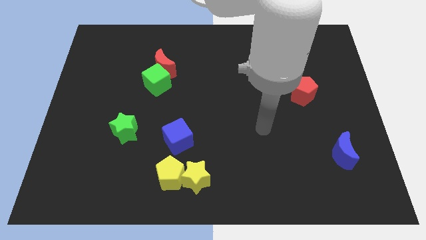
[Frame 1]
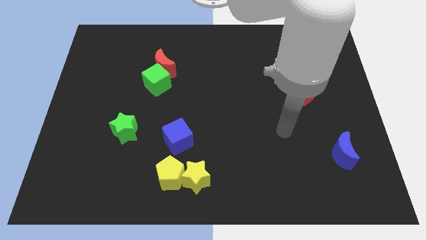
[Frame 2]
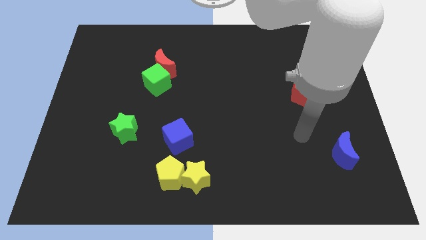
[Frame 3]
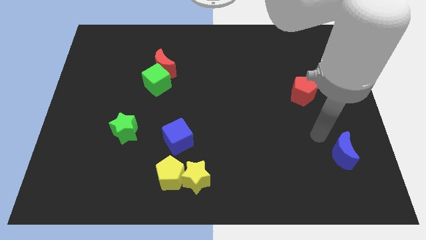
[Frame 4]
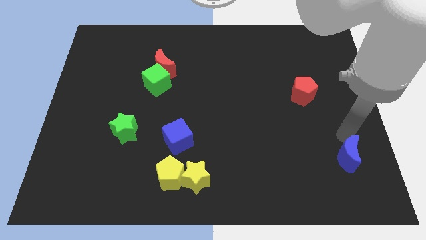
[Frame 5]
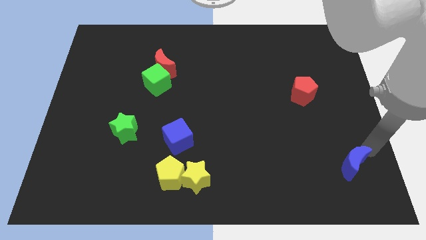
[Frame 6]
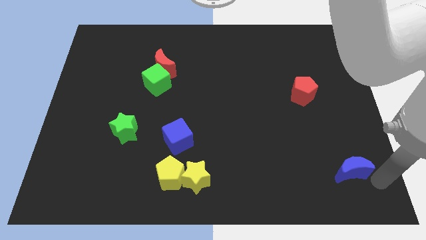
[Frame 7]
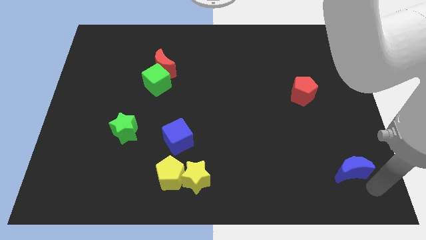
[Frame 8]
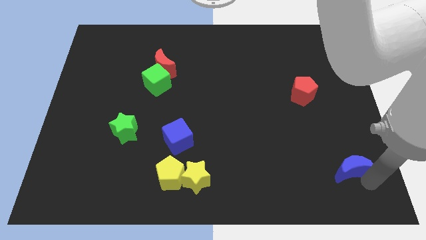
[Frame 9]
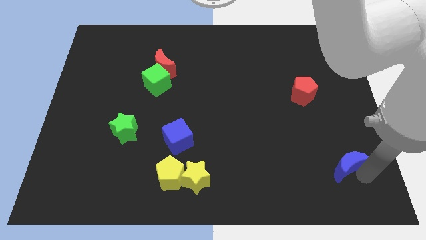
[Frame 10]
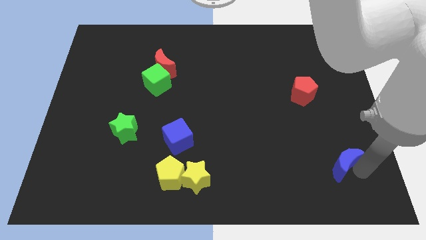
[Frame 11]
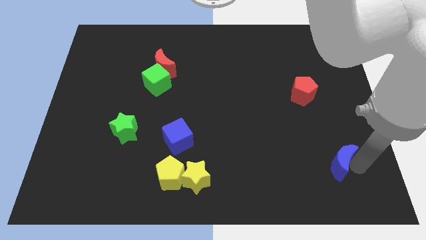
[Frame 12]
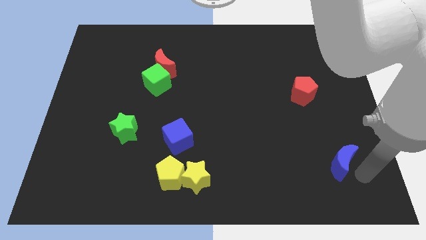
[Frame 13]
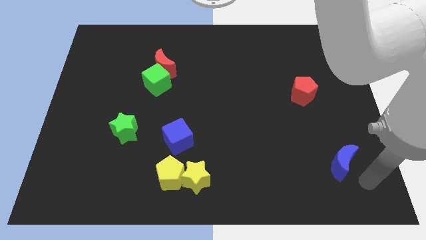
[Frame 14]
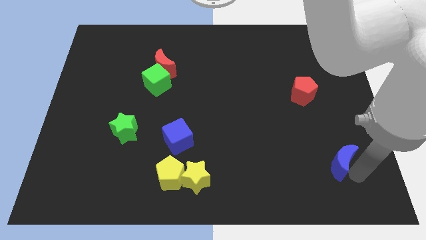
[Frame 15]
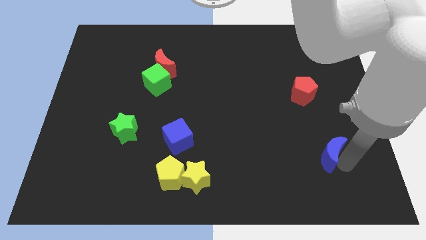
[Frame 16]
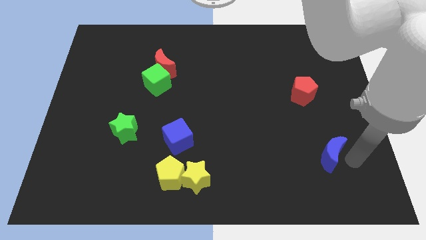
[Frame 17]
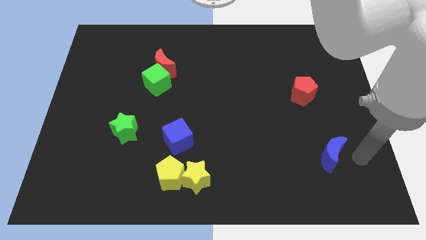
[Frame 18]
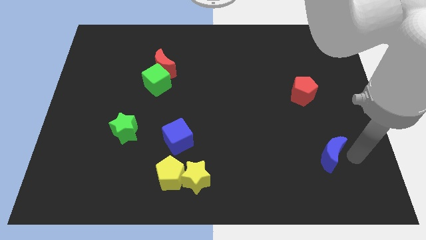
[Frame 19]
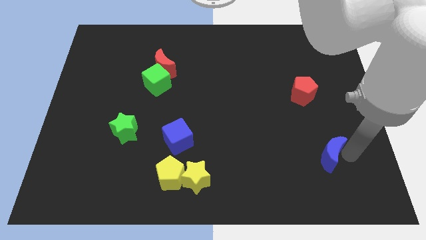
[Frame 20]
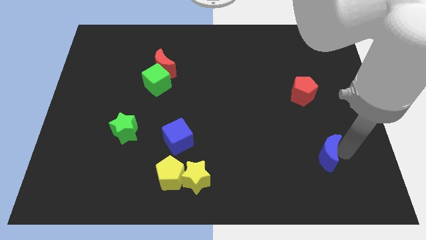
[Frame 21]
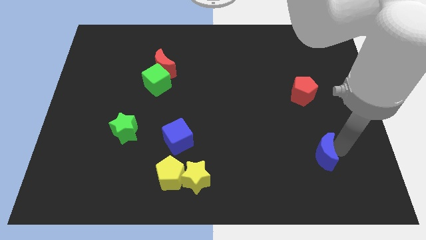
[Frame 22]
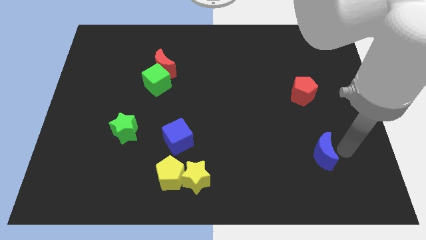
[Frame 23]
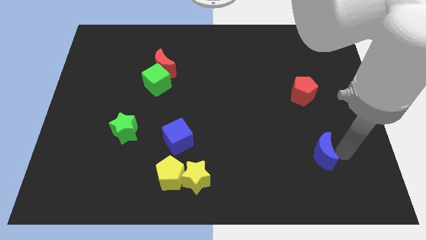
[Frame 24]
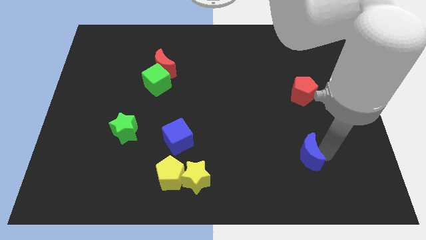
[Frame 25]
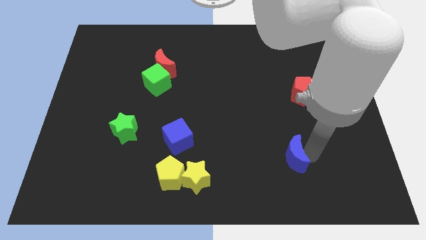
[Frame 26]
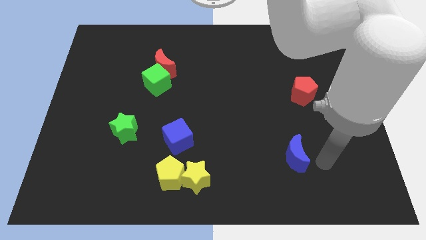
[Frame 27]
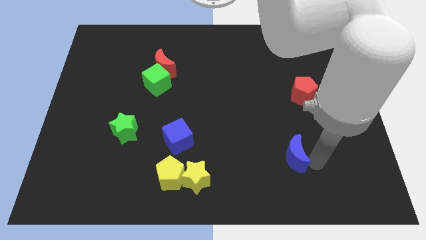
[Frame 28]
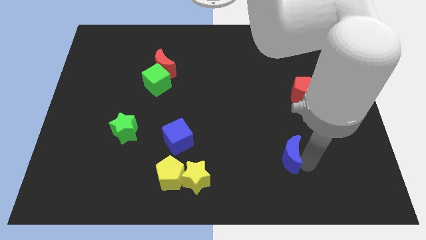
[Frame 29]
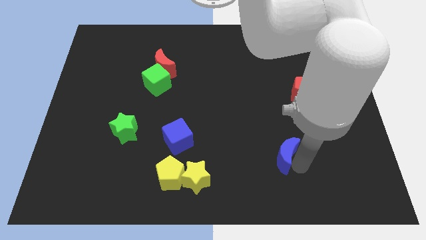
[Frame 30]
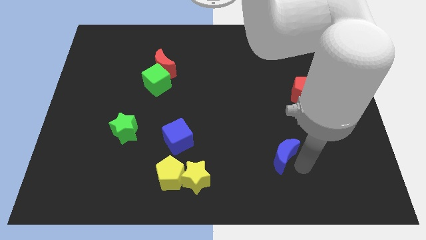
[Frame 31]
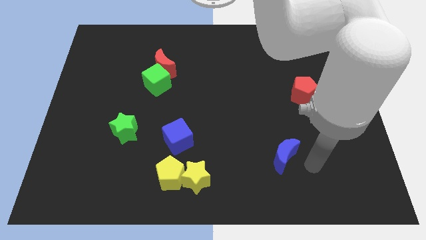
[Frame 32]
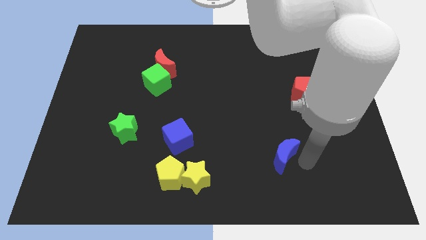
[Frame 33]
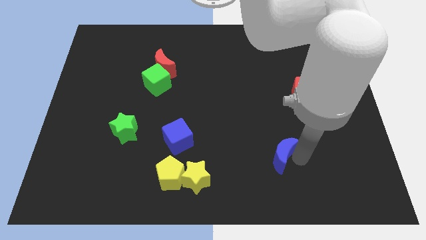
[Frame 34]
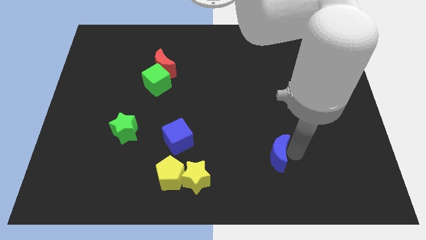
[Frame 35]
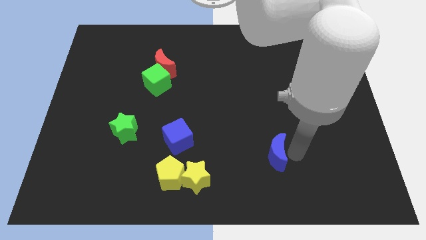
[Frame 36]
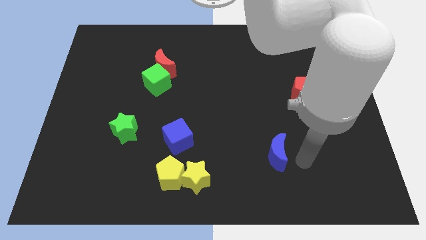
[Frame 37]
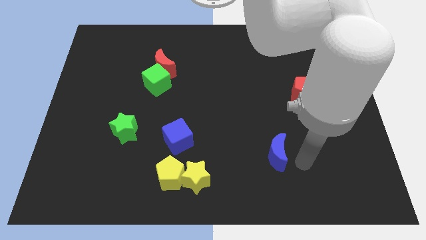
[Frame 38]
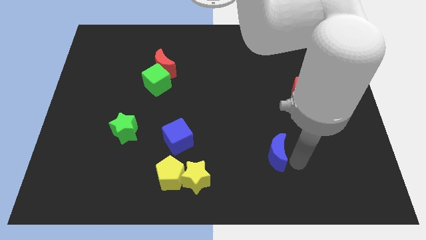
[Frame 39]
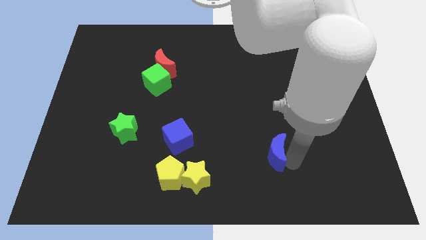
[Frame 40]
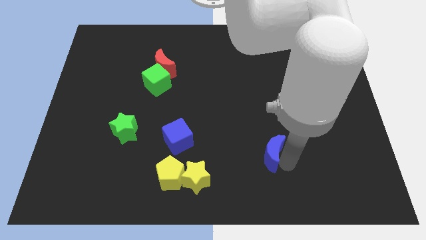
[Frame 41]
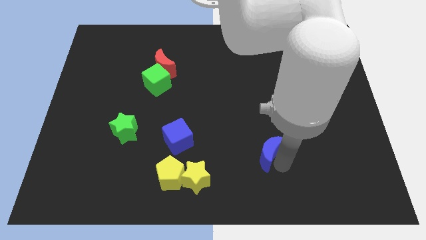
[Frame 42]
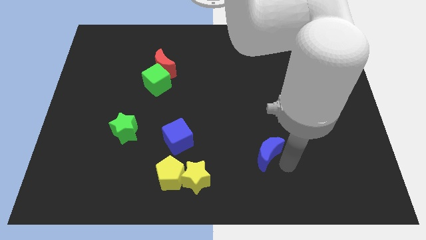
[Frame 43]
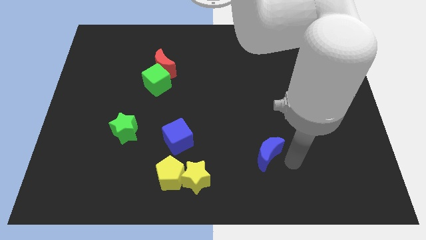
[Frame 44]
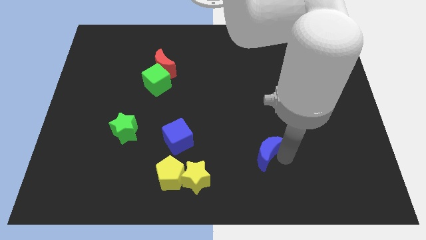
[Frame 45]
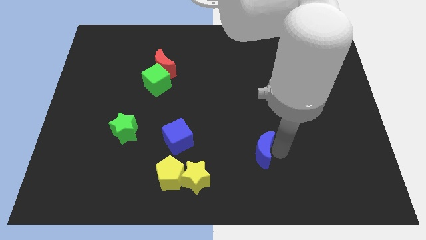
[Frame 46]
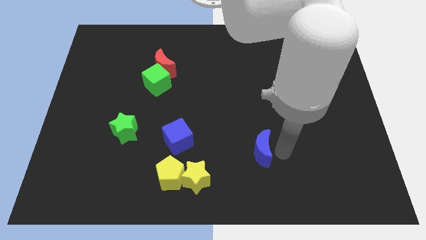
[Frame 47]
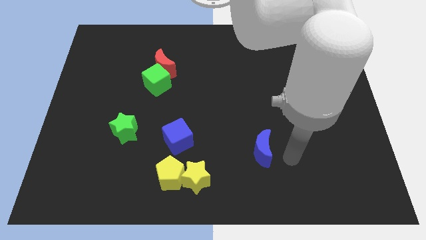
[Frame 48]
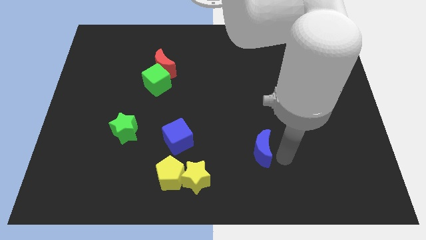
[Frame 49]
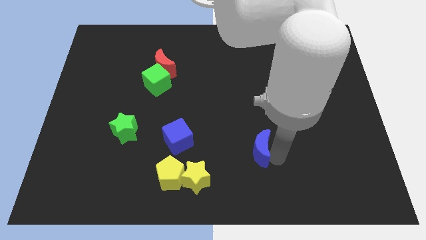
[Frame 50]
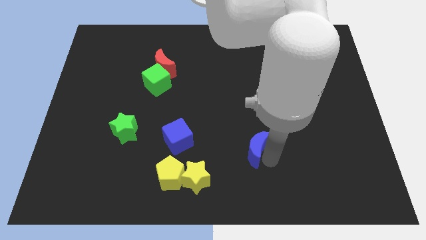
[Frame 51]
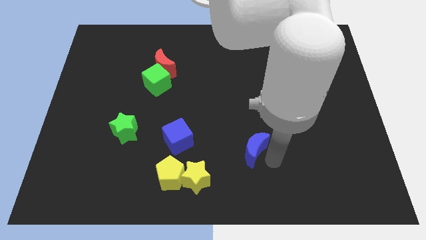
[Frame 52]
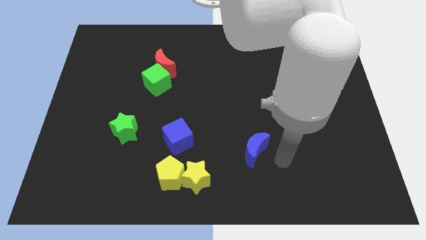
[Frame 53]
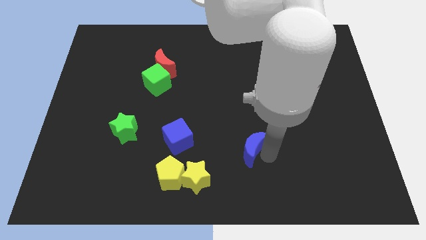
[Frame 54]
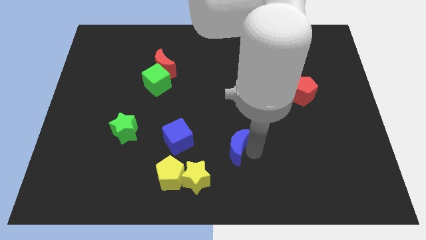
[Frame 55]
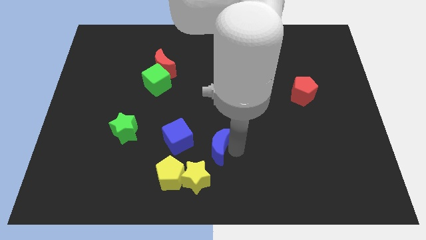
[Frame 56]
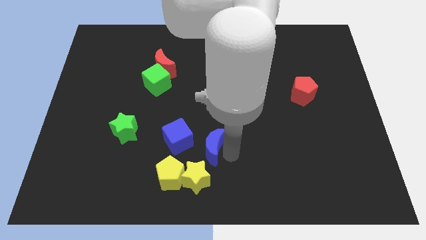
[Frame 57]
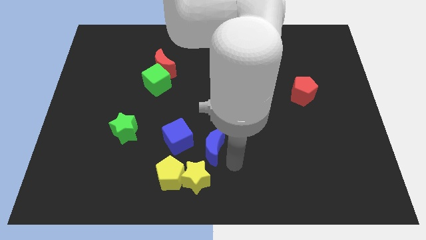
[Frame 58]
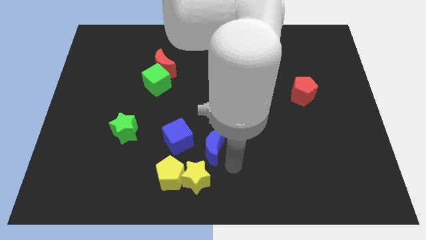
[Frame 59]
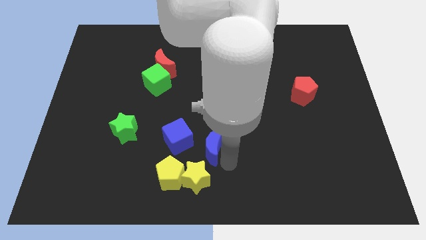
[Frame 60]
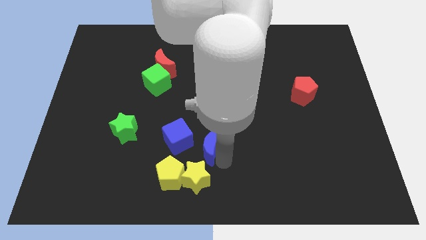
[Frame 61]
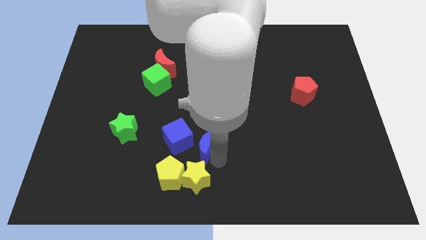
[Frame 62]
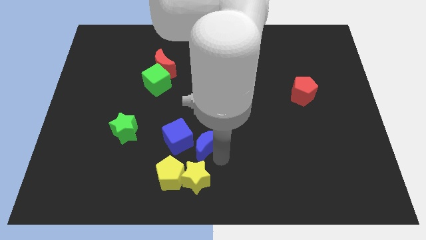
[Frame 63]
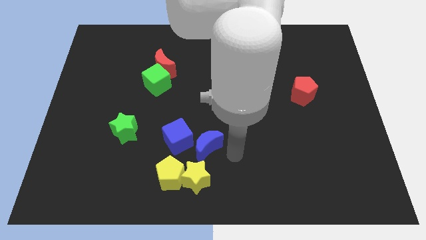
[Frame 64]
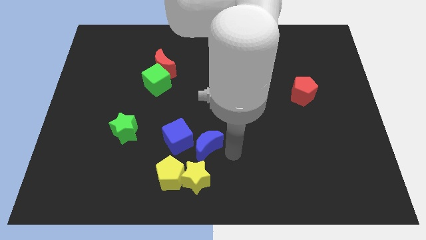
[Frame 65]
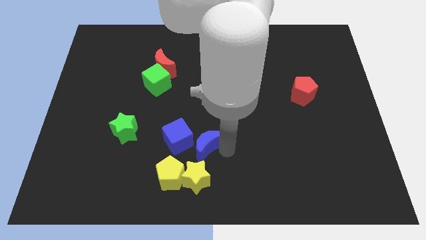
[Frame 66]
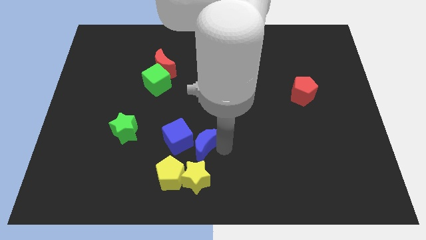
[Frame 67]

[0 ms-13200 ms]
push the blue moon next to the blue cube
